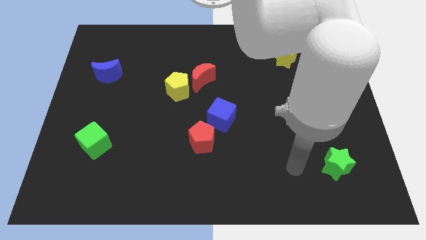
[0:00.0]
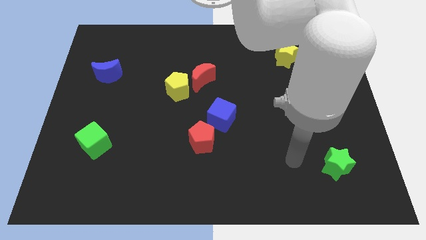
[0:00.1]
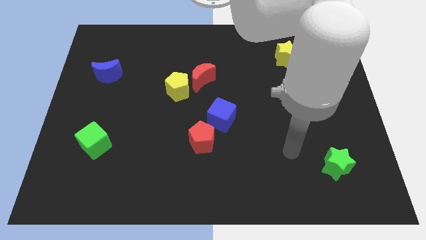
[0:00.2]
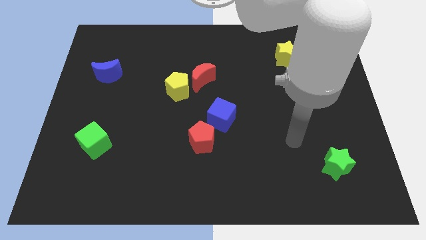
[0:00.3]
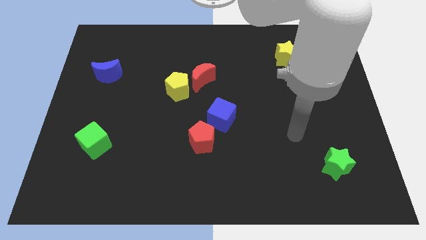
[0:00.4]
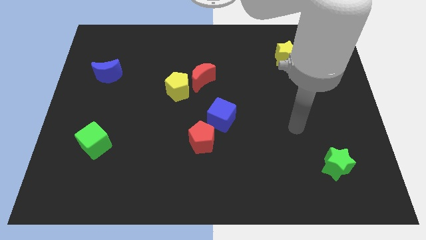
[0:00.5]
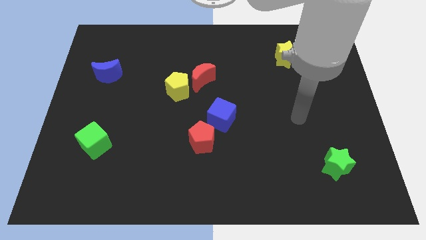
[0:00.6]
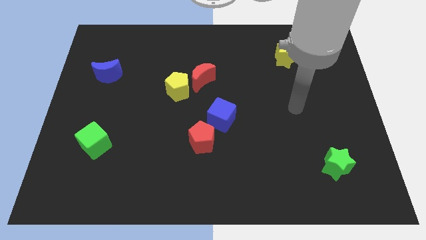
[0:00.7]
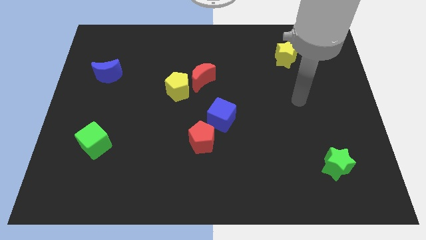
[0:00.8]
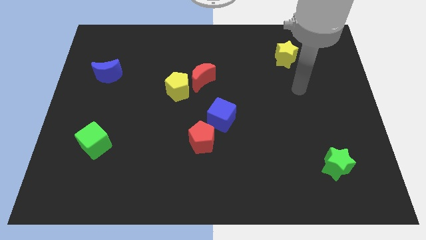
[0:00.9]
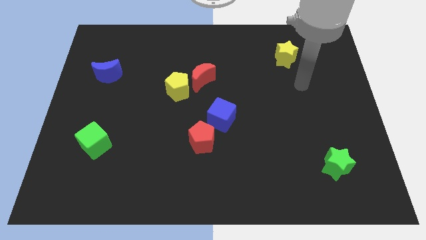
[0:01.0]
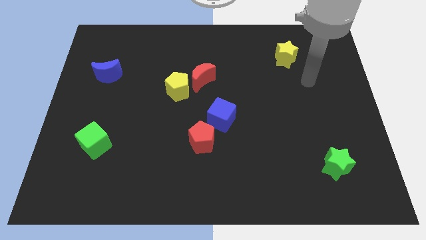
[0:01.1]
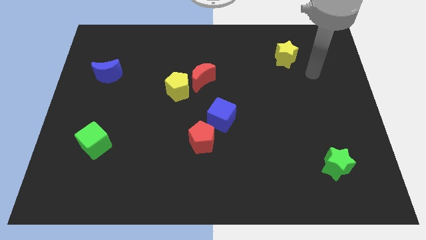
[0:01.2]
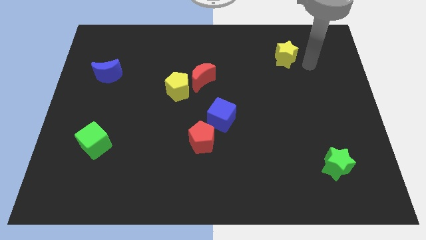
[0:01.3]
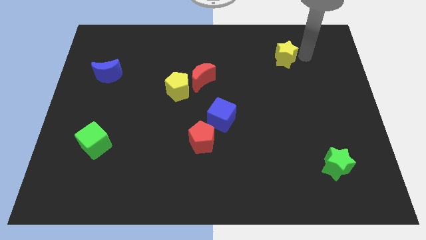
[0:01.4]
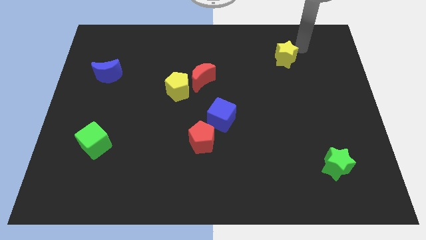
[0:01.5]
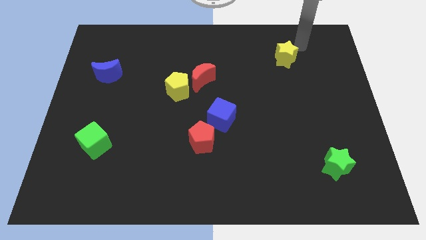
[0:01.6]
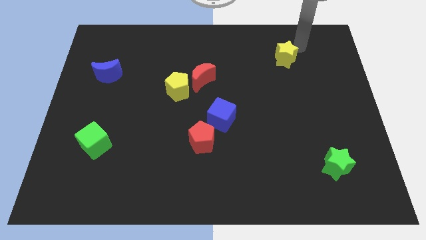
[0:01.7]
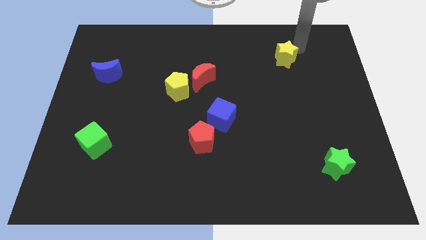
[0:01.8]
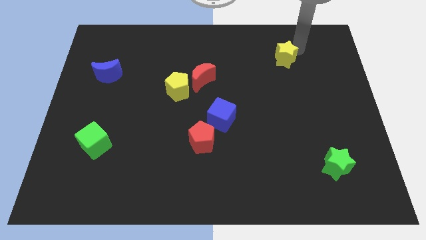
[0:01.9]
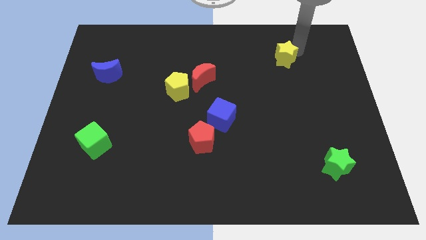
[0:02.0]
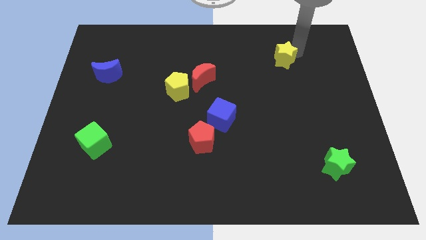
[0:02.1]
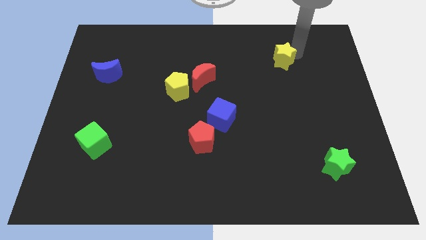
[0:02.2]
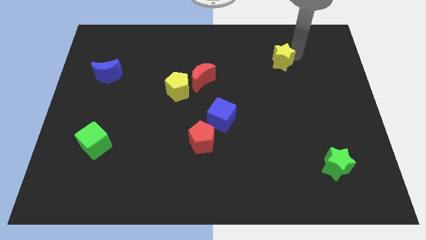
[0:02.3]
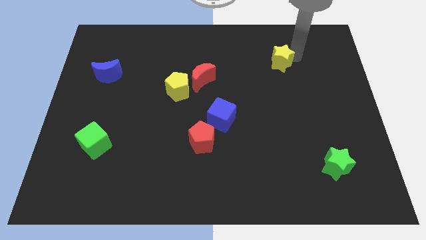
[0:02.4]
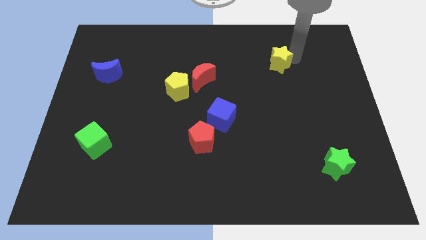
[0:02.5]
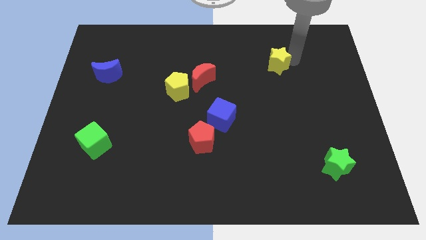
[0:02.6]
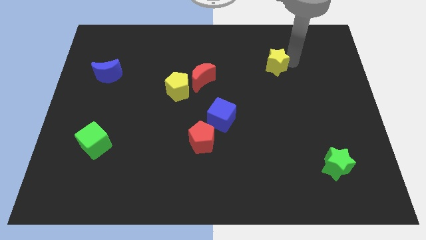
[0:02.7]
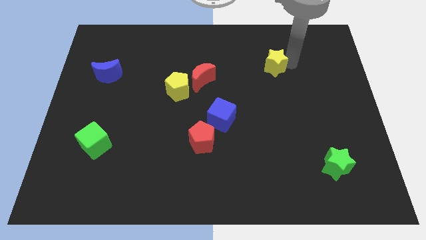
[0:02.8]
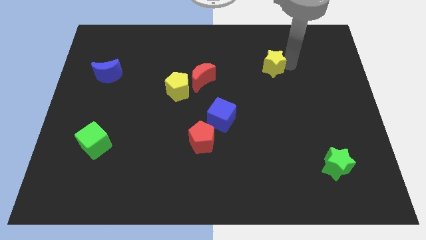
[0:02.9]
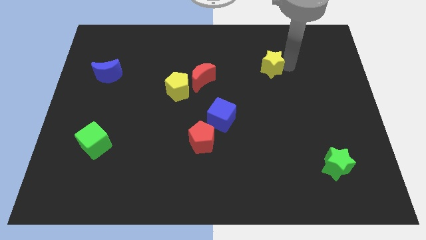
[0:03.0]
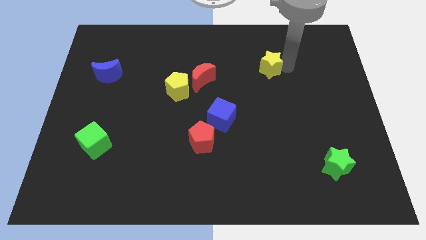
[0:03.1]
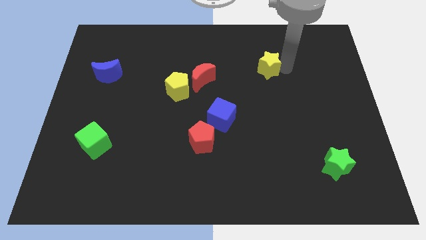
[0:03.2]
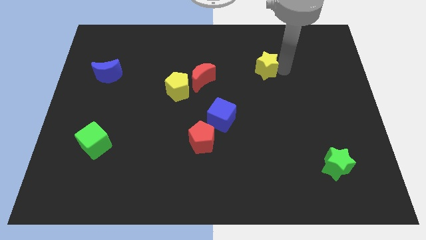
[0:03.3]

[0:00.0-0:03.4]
slightly push the yellow star down and then left

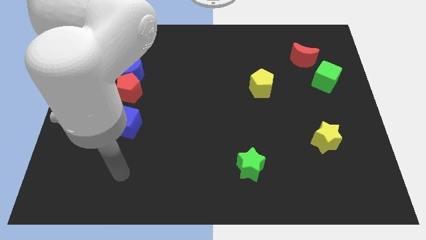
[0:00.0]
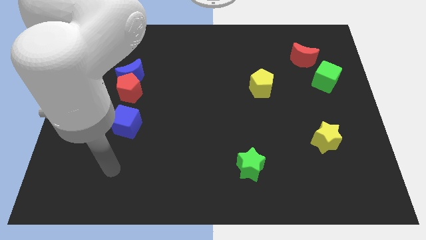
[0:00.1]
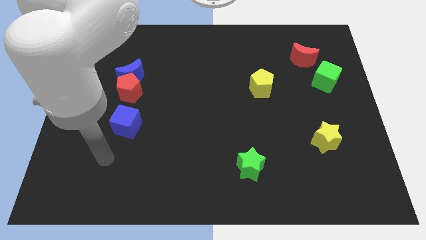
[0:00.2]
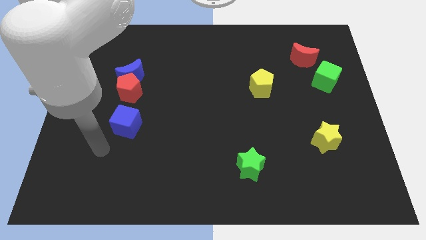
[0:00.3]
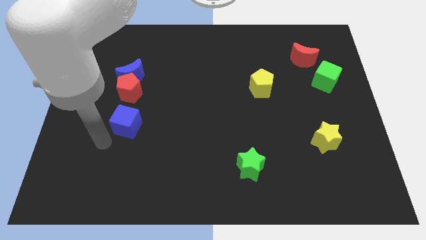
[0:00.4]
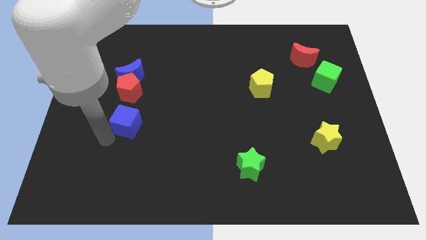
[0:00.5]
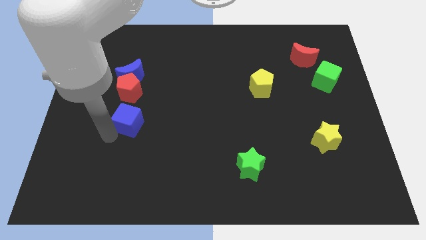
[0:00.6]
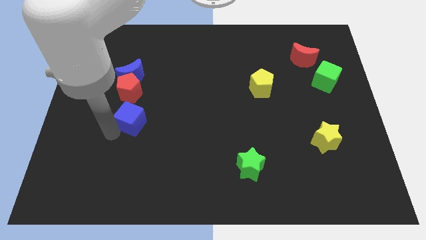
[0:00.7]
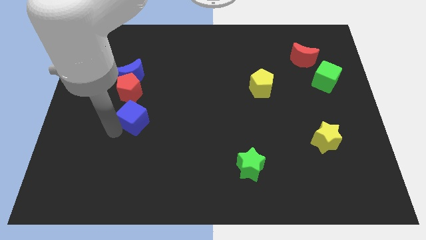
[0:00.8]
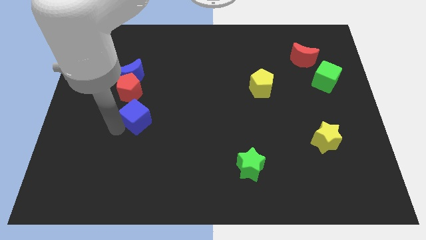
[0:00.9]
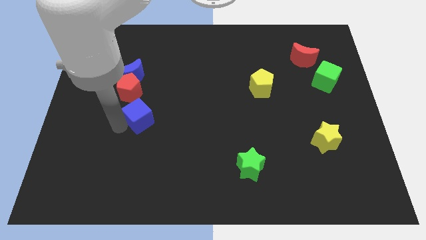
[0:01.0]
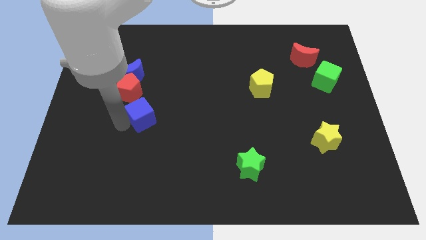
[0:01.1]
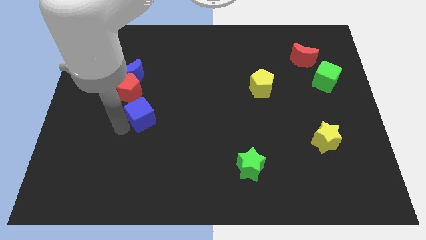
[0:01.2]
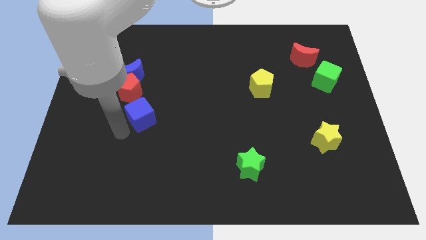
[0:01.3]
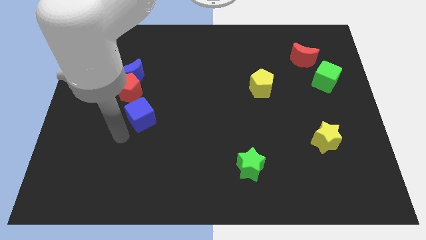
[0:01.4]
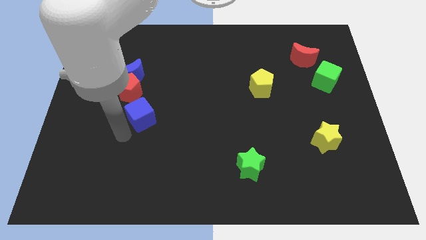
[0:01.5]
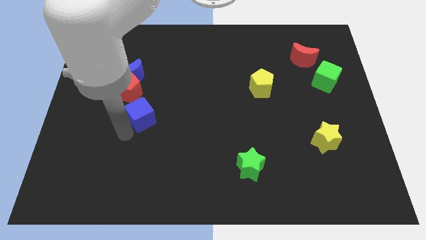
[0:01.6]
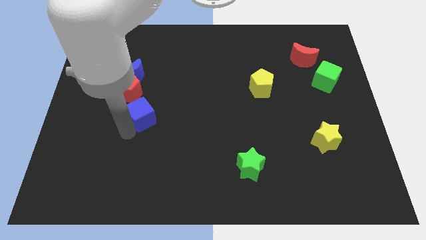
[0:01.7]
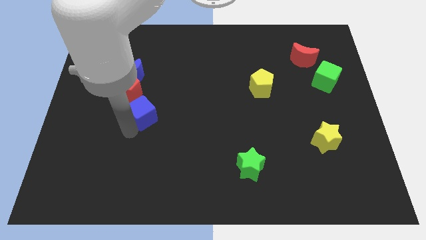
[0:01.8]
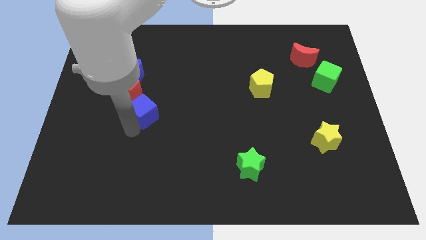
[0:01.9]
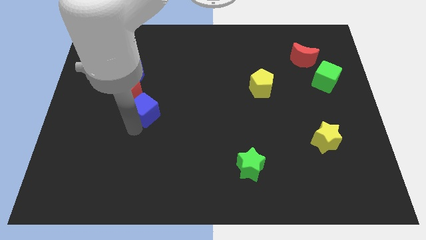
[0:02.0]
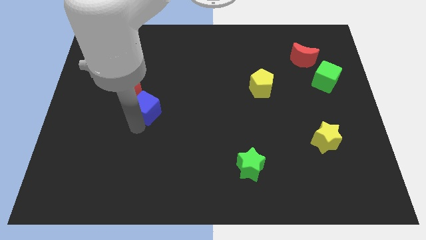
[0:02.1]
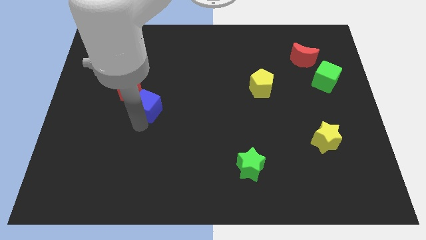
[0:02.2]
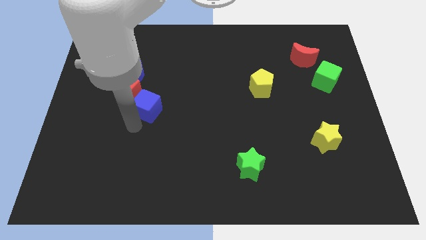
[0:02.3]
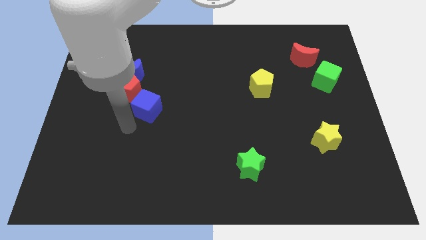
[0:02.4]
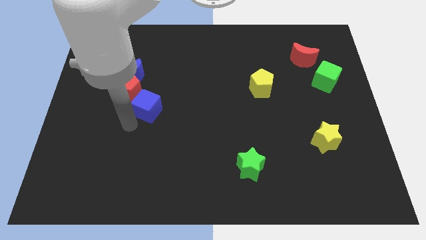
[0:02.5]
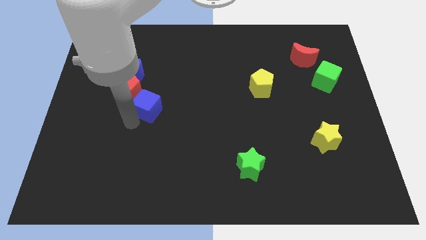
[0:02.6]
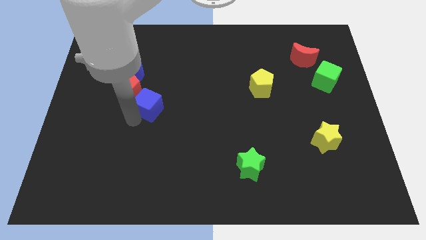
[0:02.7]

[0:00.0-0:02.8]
push the blue cube slightly upwards and then to the right

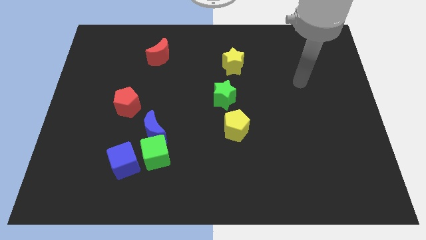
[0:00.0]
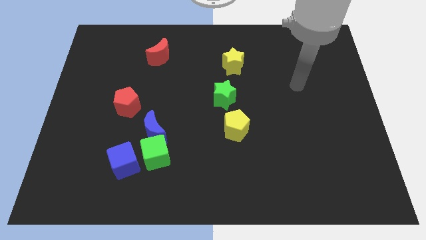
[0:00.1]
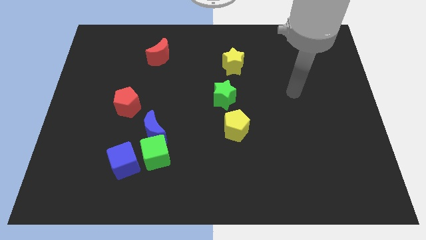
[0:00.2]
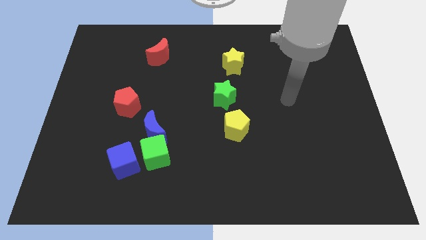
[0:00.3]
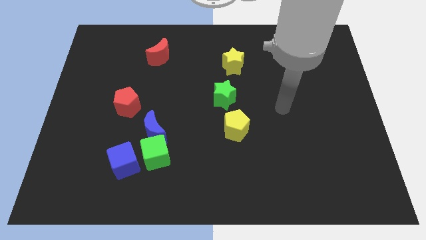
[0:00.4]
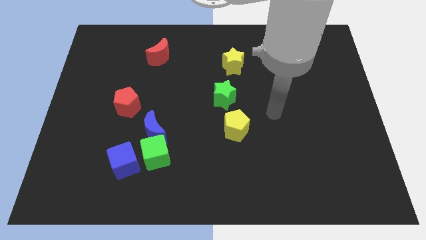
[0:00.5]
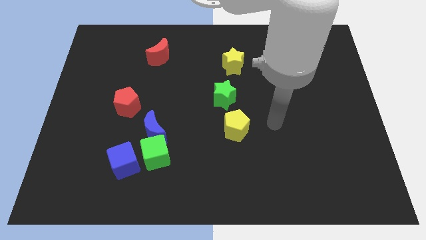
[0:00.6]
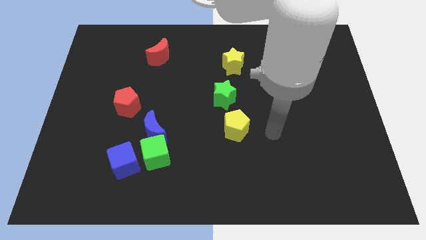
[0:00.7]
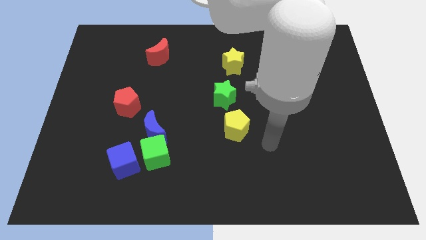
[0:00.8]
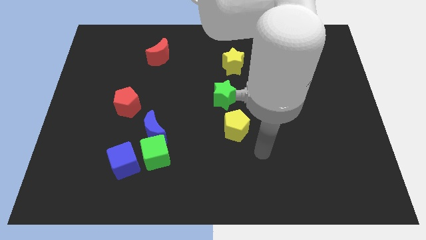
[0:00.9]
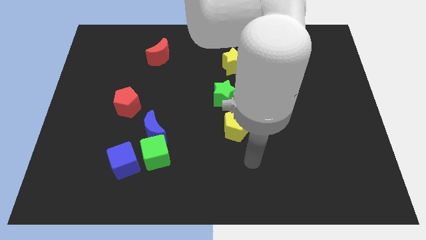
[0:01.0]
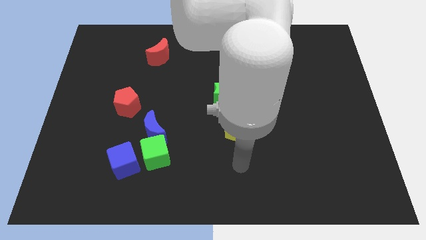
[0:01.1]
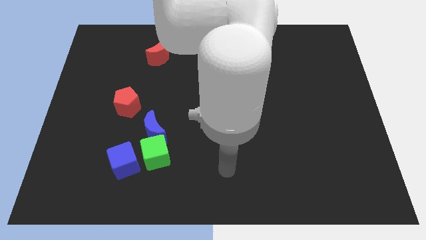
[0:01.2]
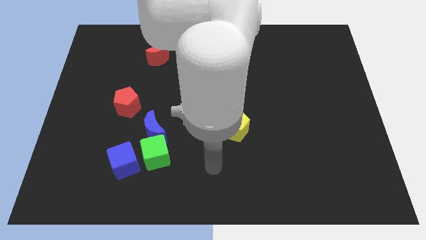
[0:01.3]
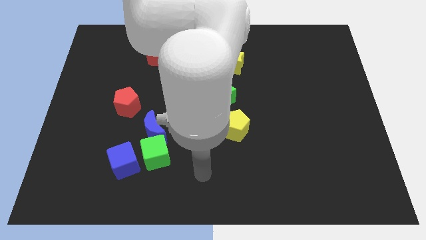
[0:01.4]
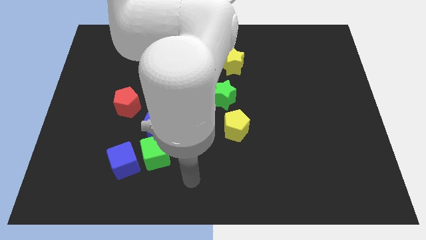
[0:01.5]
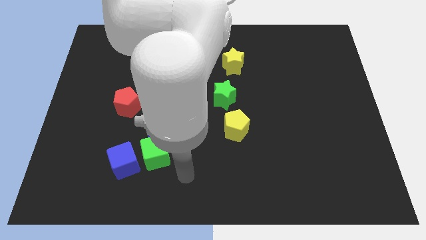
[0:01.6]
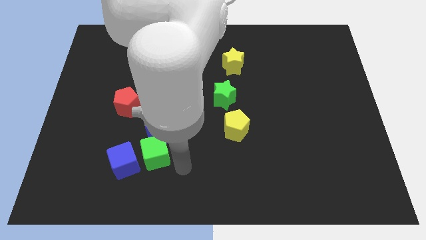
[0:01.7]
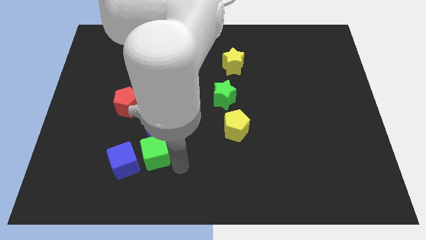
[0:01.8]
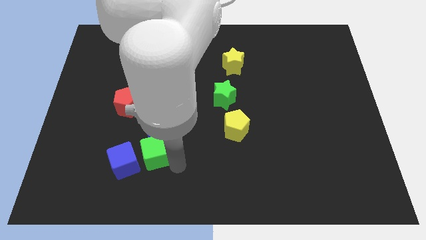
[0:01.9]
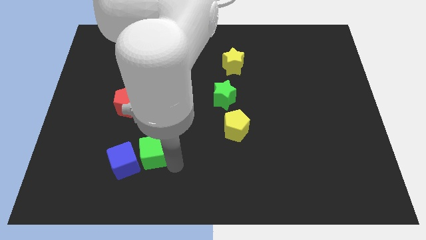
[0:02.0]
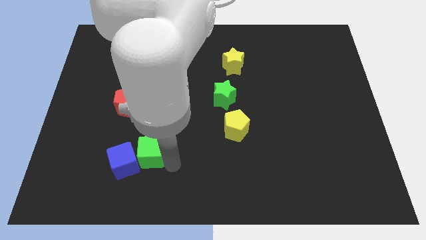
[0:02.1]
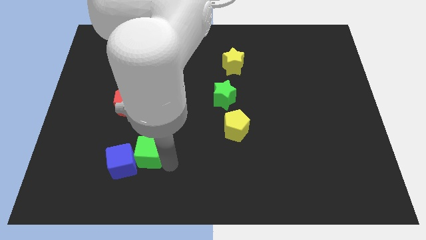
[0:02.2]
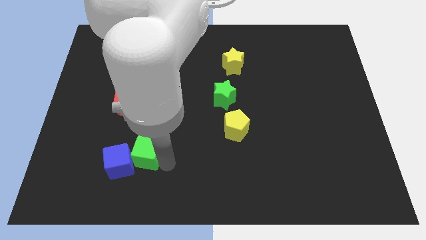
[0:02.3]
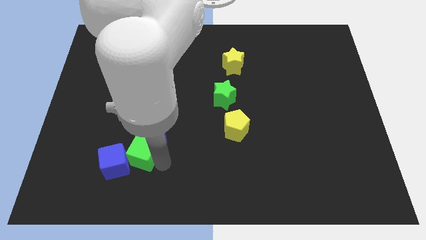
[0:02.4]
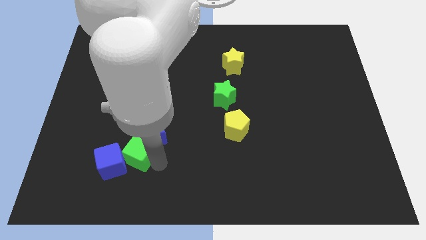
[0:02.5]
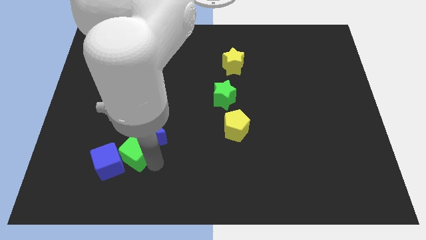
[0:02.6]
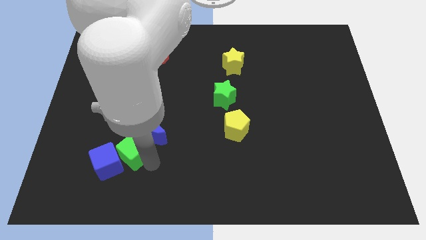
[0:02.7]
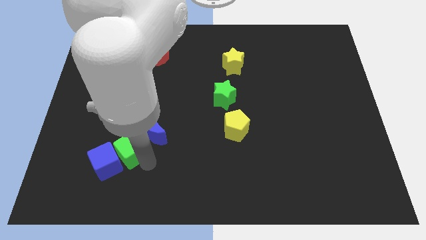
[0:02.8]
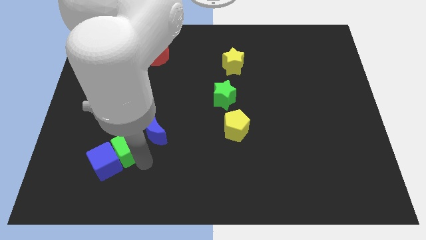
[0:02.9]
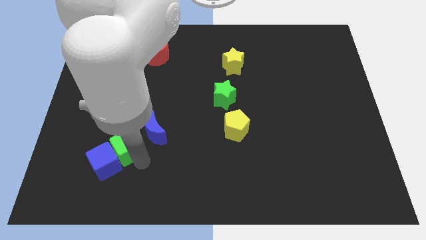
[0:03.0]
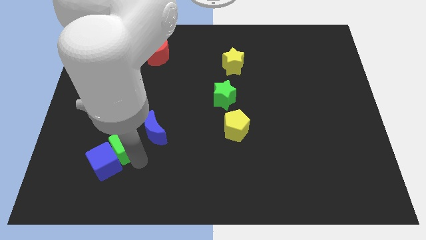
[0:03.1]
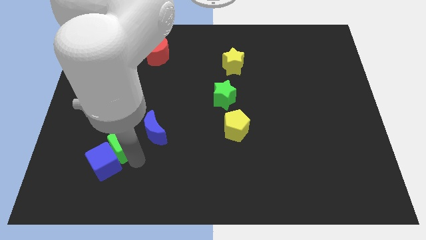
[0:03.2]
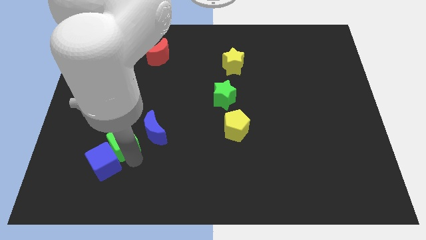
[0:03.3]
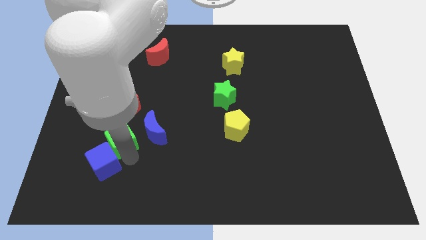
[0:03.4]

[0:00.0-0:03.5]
slide the green cube a little upwards and to the left
